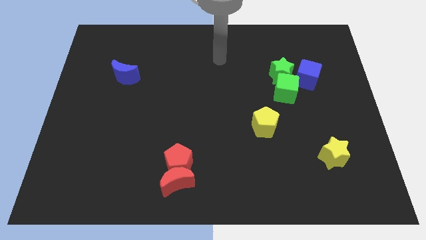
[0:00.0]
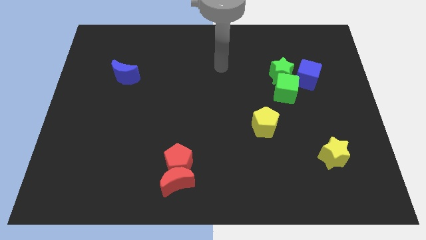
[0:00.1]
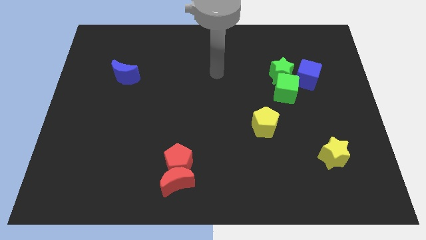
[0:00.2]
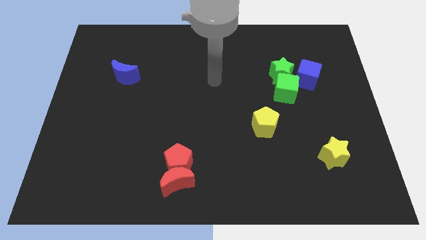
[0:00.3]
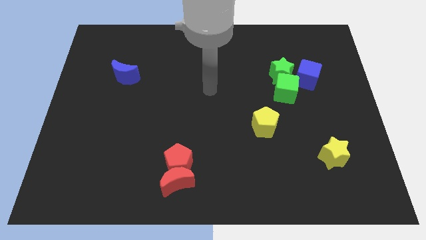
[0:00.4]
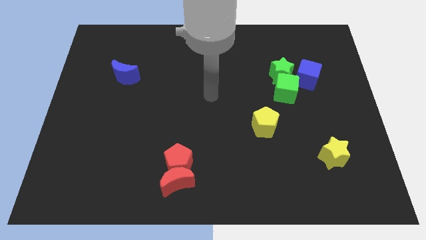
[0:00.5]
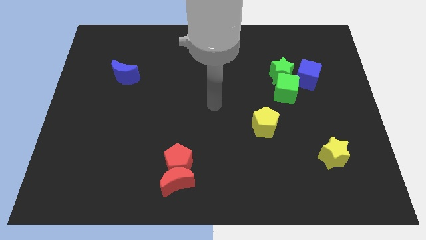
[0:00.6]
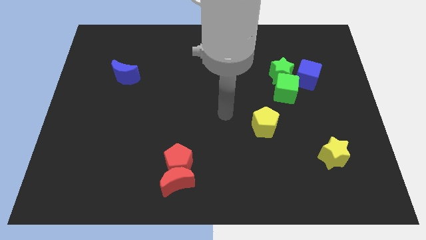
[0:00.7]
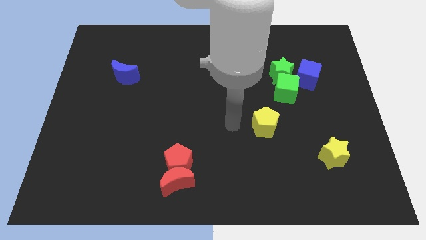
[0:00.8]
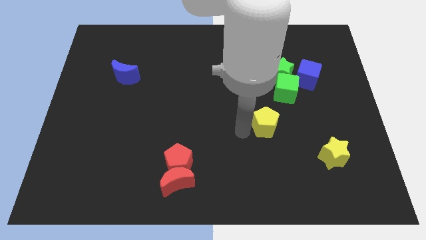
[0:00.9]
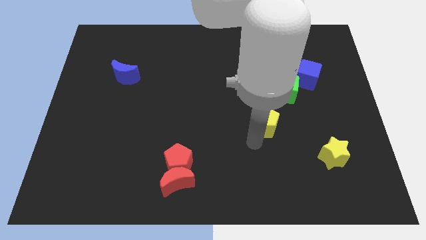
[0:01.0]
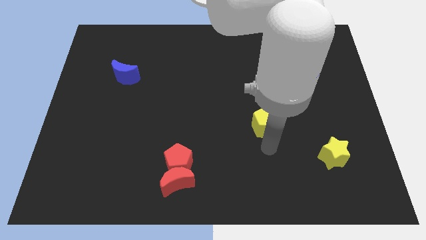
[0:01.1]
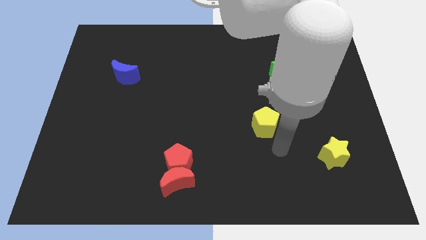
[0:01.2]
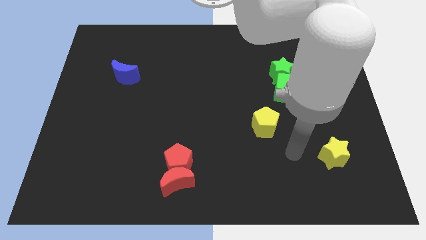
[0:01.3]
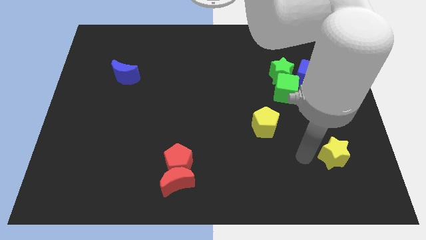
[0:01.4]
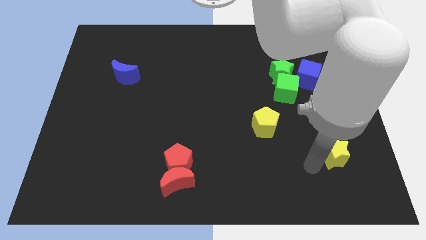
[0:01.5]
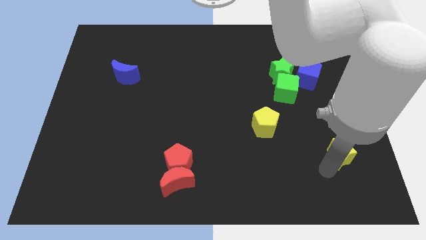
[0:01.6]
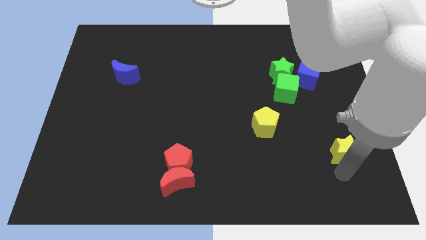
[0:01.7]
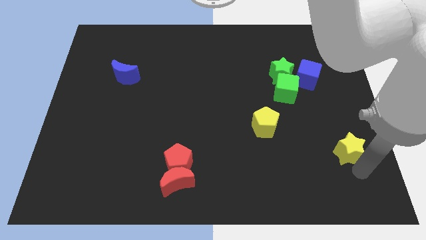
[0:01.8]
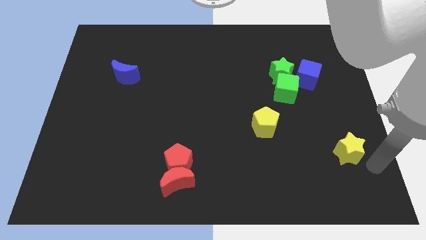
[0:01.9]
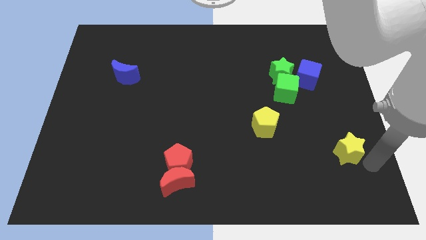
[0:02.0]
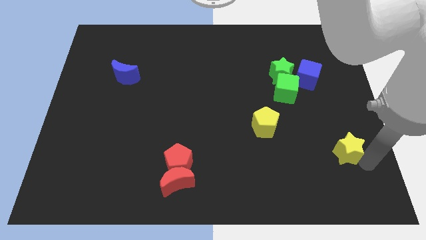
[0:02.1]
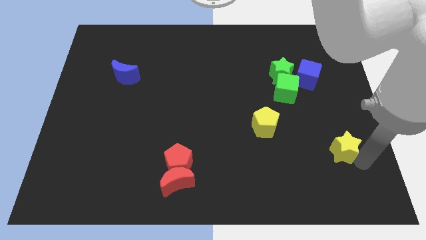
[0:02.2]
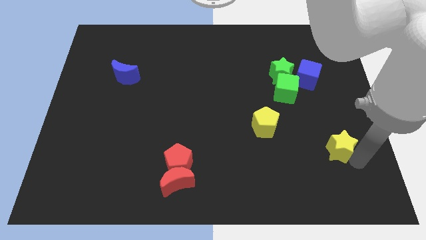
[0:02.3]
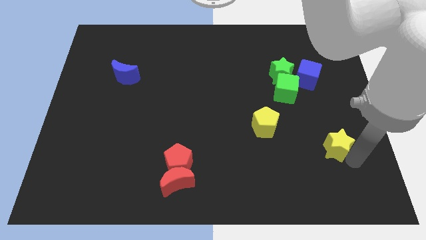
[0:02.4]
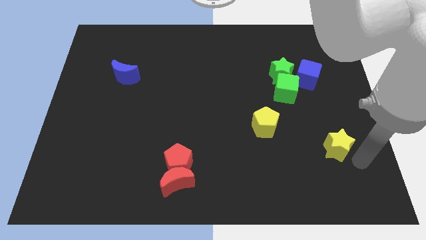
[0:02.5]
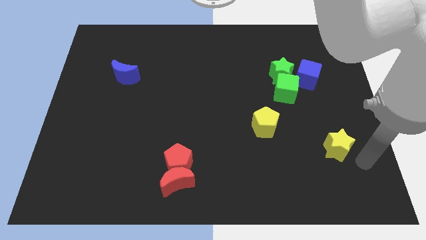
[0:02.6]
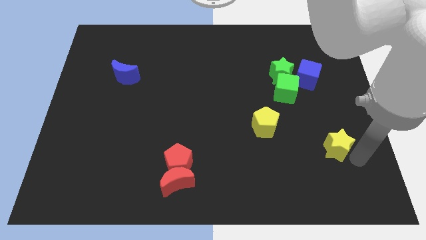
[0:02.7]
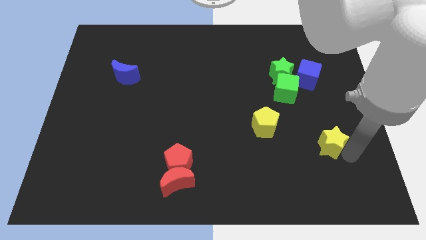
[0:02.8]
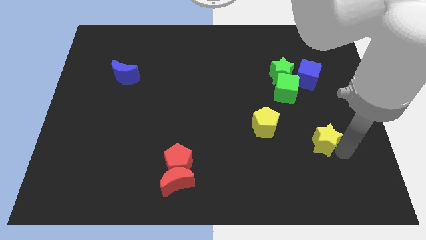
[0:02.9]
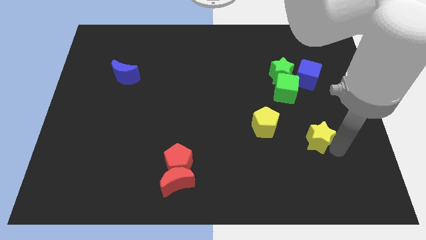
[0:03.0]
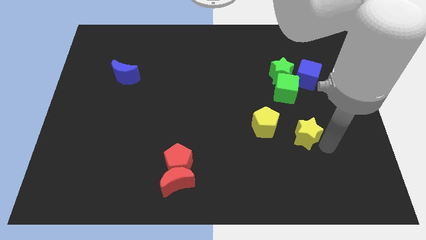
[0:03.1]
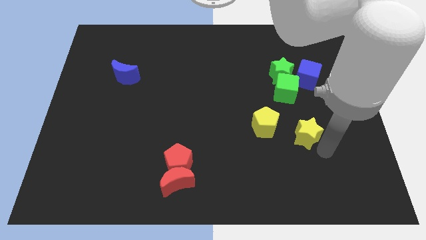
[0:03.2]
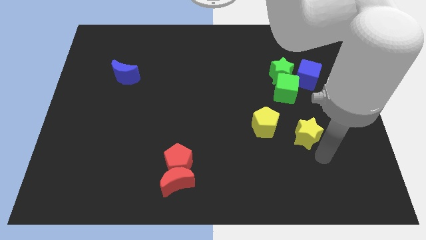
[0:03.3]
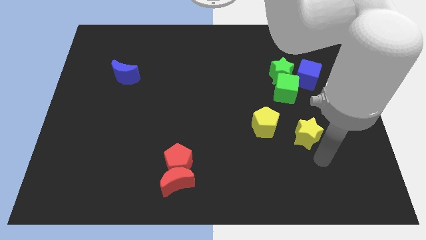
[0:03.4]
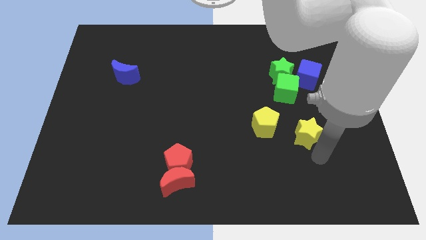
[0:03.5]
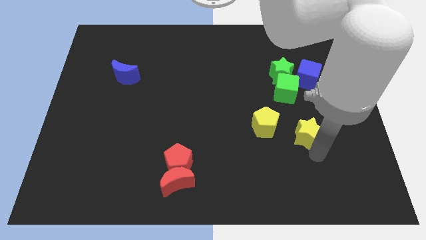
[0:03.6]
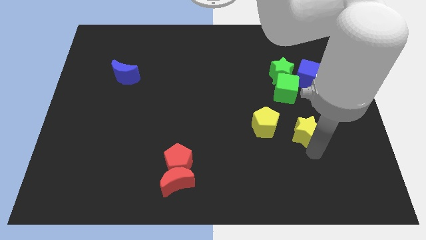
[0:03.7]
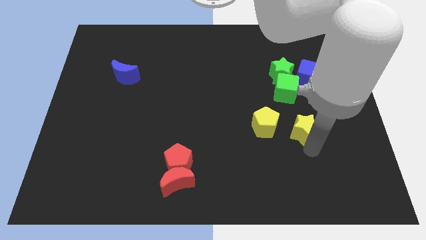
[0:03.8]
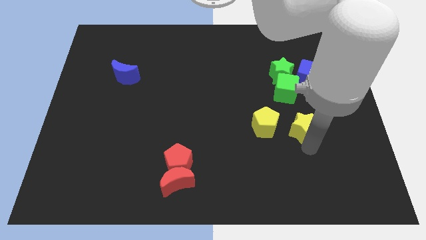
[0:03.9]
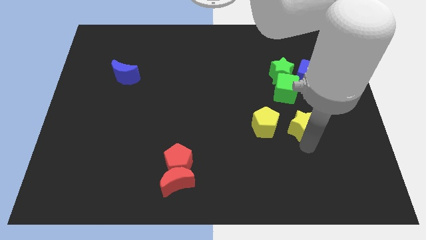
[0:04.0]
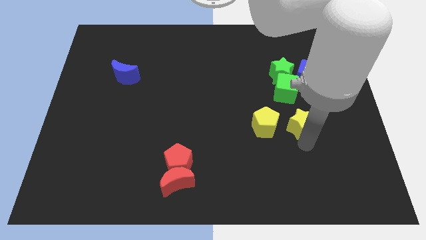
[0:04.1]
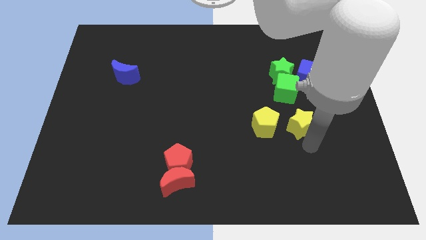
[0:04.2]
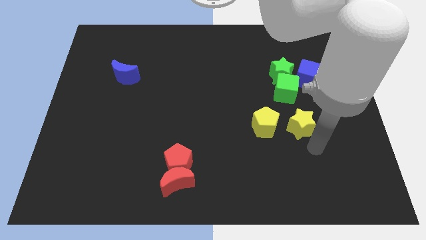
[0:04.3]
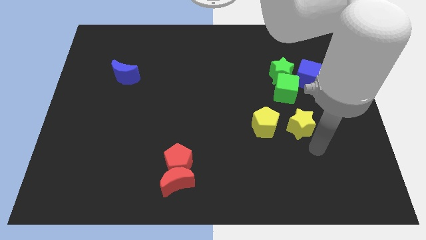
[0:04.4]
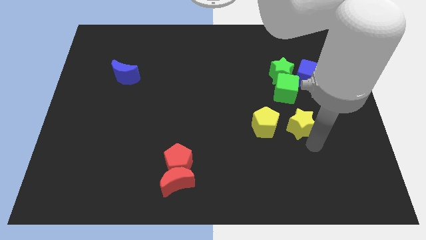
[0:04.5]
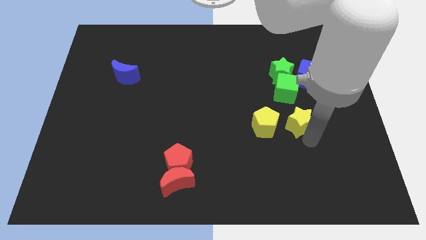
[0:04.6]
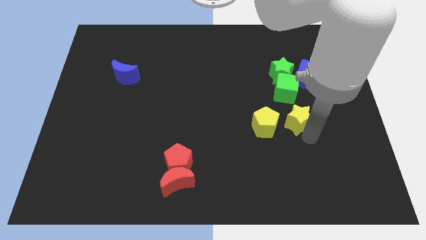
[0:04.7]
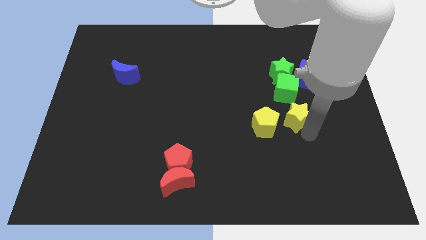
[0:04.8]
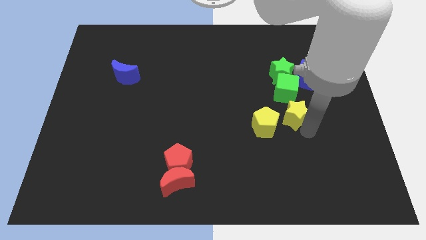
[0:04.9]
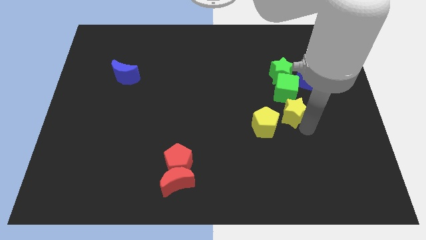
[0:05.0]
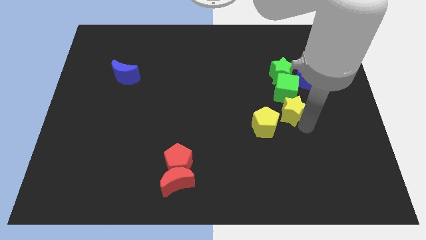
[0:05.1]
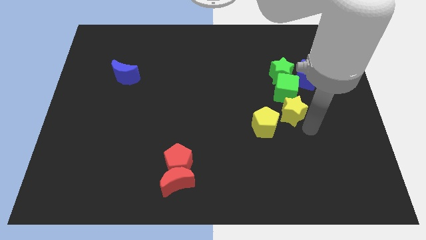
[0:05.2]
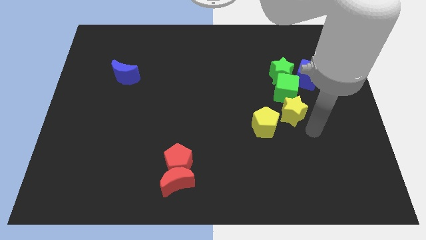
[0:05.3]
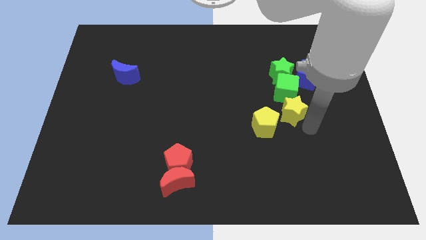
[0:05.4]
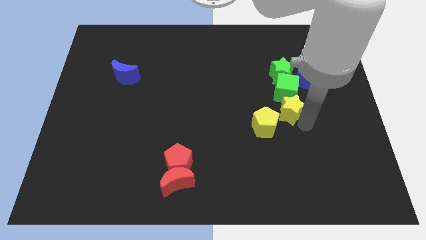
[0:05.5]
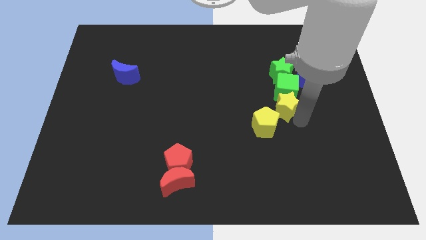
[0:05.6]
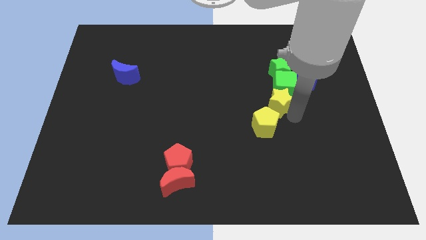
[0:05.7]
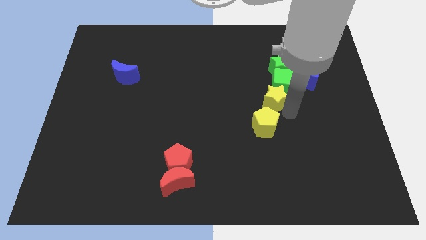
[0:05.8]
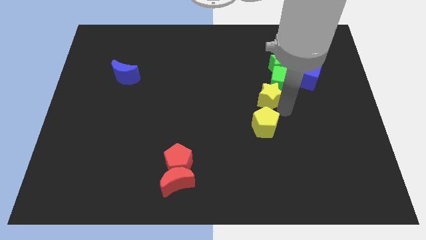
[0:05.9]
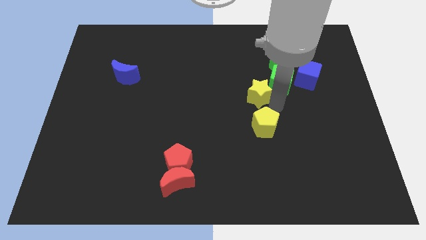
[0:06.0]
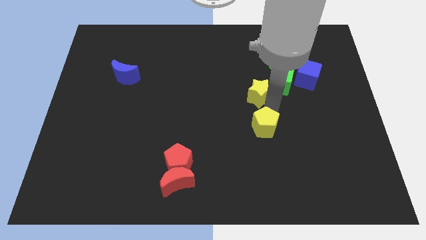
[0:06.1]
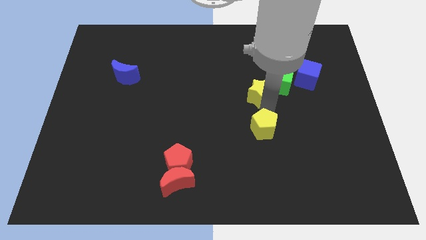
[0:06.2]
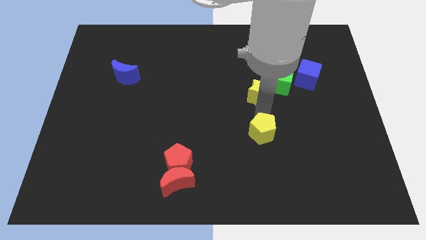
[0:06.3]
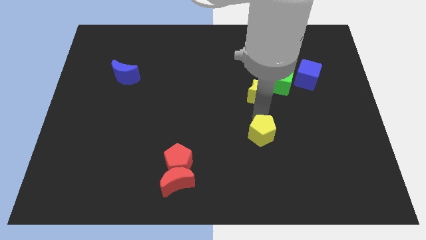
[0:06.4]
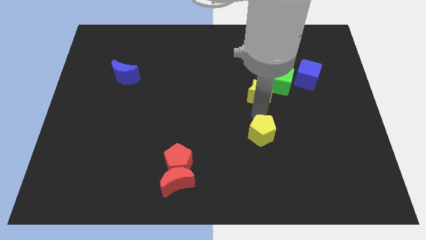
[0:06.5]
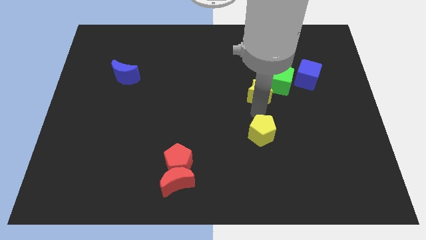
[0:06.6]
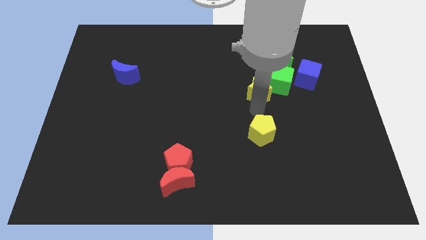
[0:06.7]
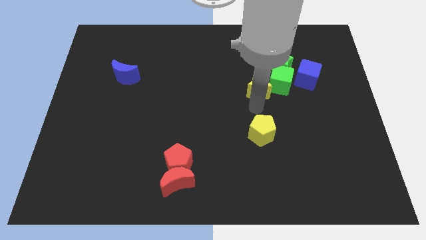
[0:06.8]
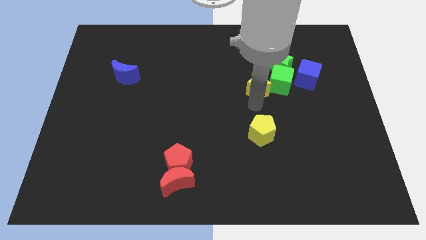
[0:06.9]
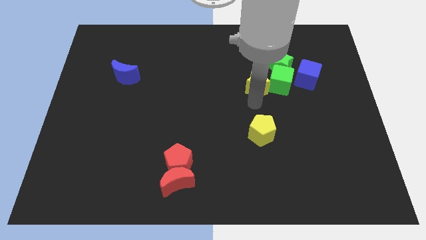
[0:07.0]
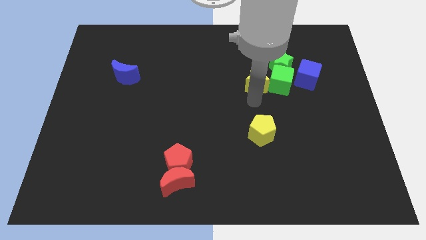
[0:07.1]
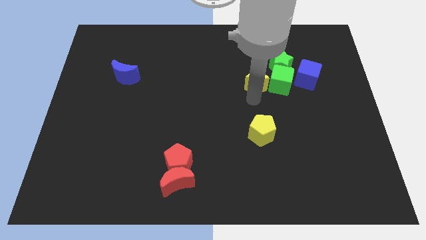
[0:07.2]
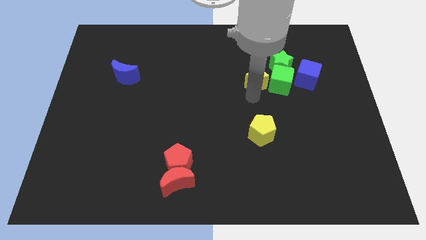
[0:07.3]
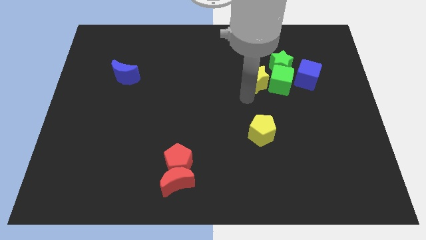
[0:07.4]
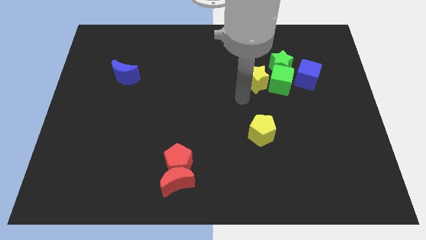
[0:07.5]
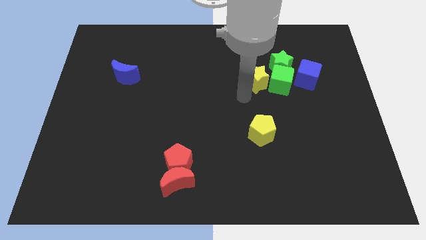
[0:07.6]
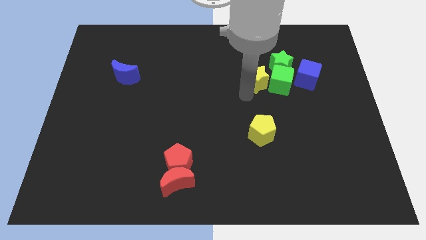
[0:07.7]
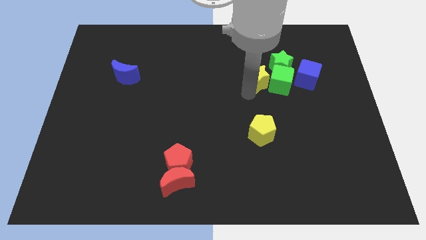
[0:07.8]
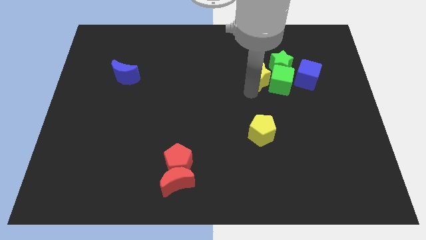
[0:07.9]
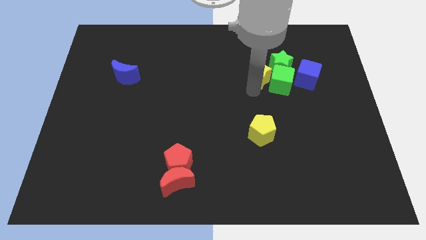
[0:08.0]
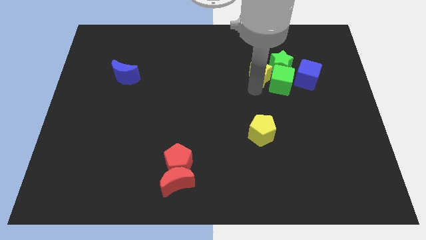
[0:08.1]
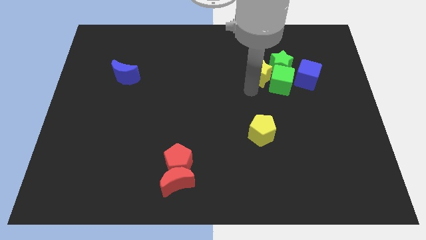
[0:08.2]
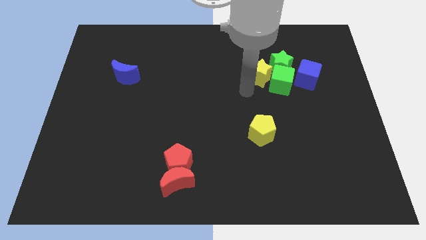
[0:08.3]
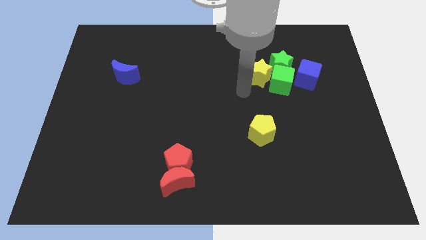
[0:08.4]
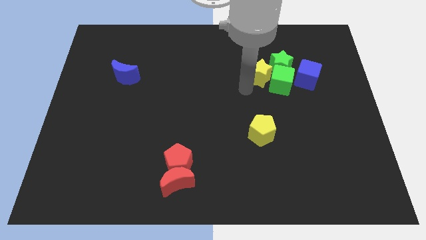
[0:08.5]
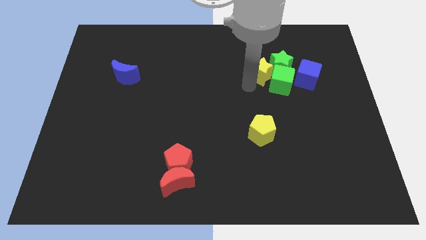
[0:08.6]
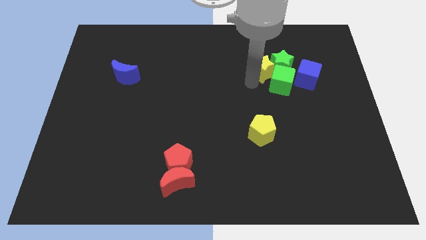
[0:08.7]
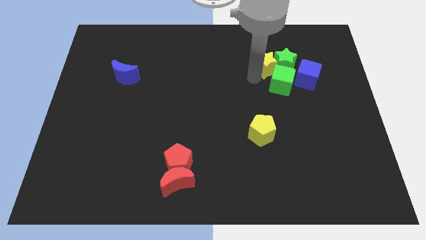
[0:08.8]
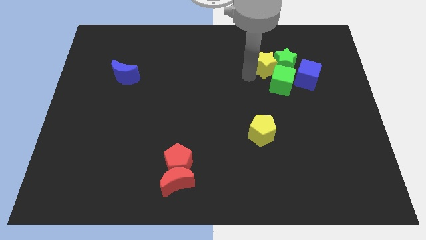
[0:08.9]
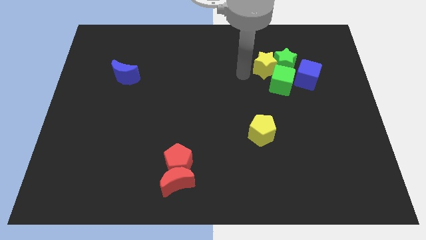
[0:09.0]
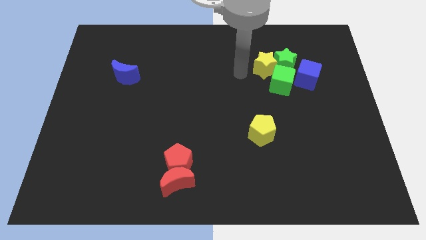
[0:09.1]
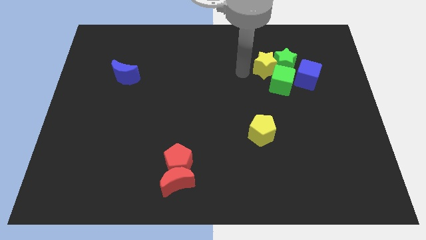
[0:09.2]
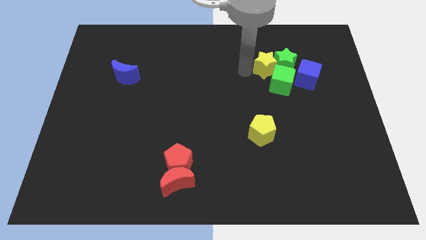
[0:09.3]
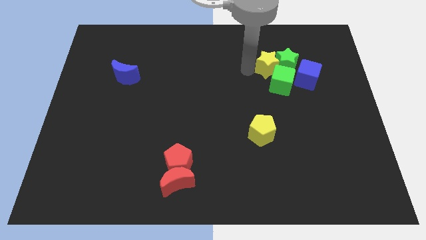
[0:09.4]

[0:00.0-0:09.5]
slide the yellow star diagonally up and to the left of the blue cube
